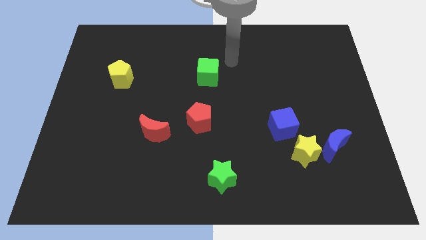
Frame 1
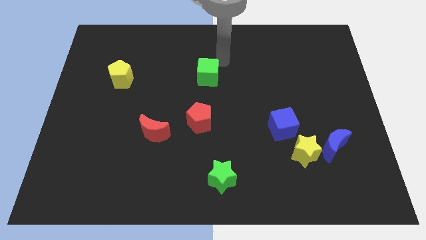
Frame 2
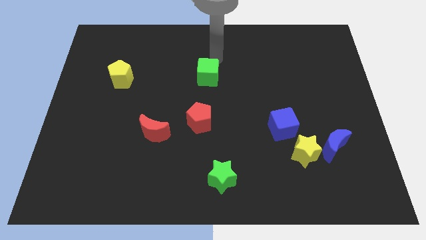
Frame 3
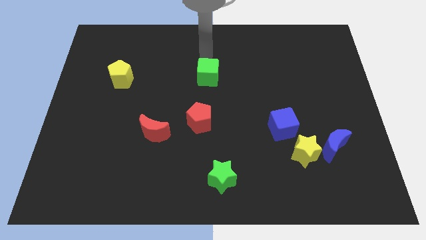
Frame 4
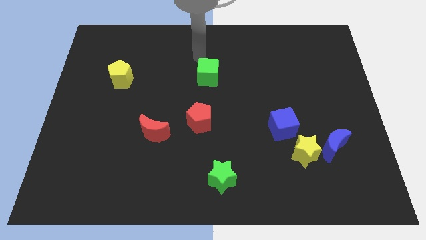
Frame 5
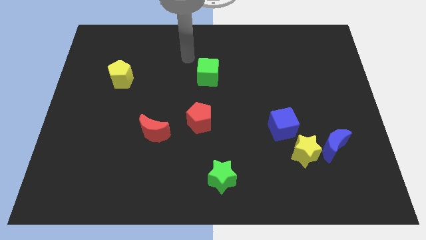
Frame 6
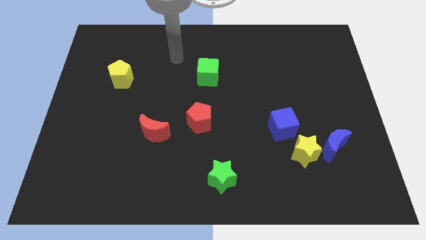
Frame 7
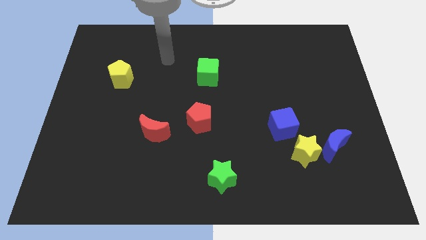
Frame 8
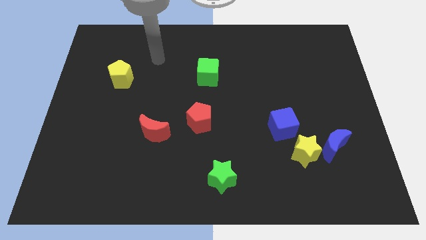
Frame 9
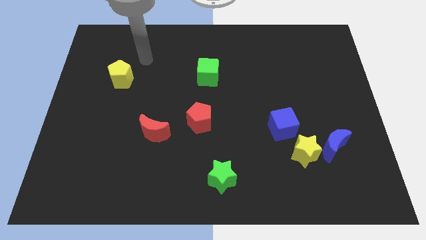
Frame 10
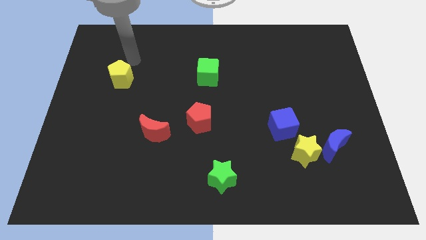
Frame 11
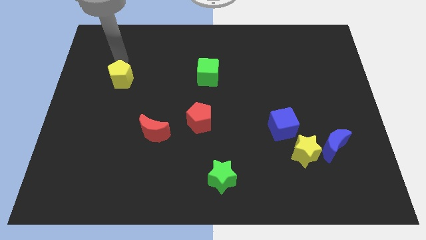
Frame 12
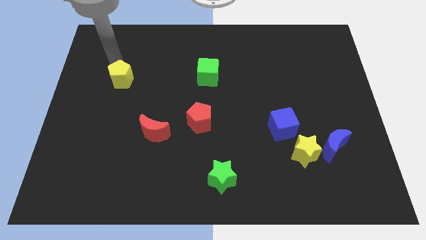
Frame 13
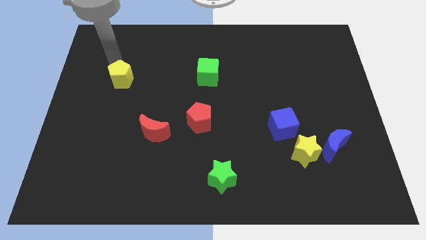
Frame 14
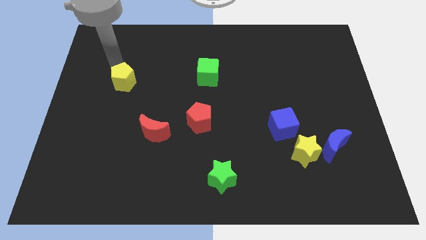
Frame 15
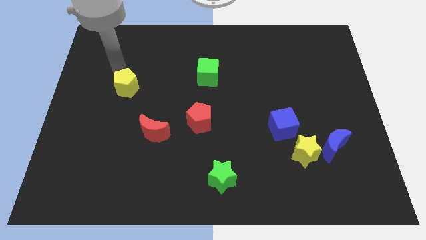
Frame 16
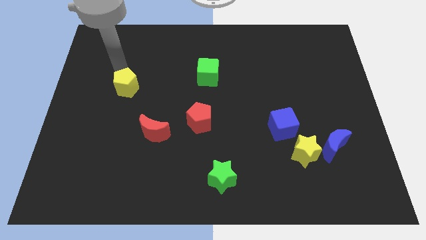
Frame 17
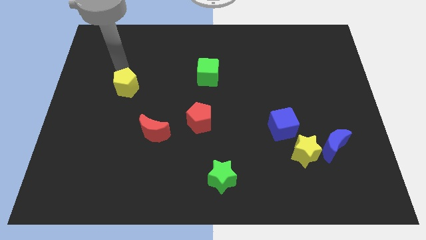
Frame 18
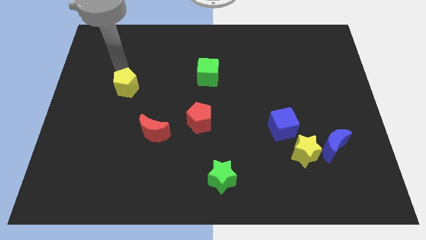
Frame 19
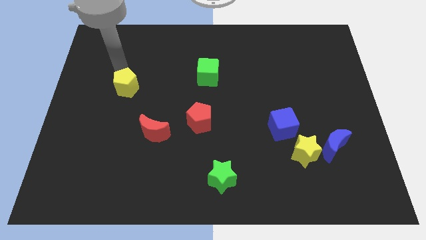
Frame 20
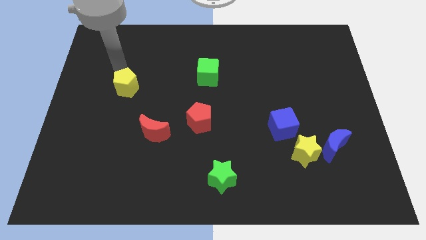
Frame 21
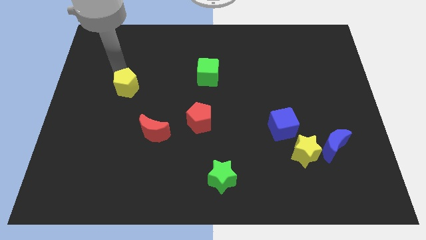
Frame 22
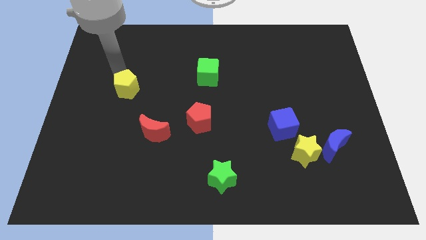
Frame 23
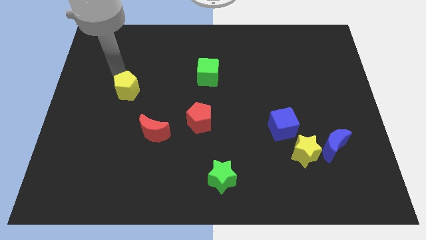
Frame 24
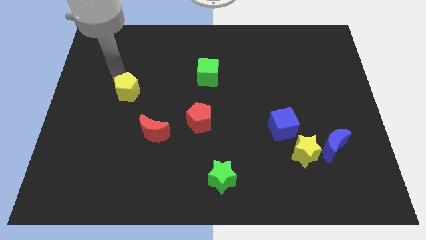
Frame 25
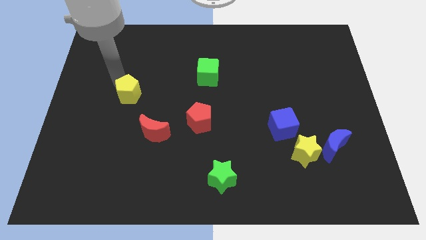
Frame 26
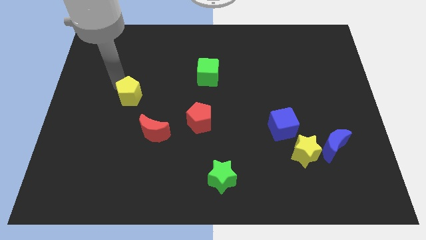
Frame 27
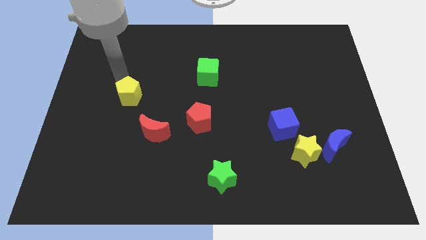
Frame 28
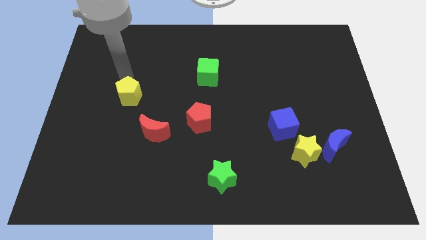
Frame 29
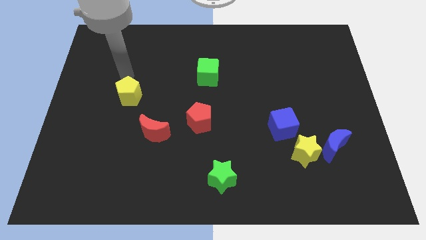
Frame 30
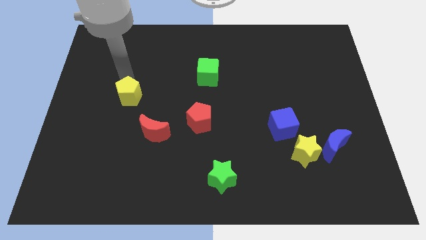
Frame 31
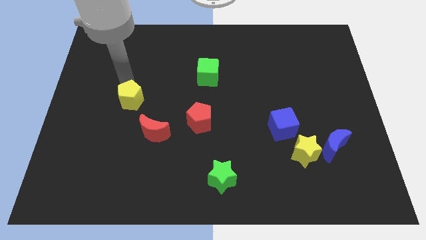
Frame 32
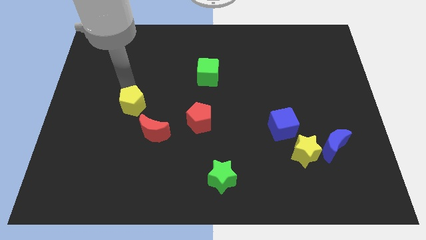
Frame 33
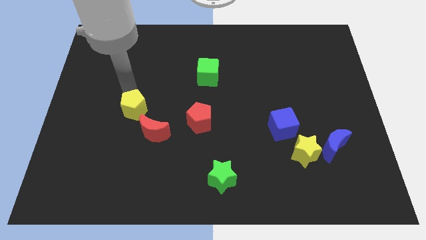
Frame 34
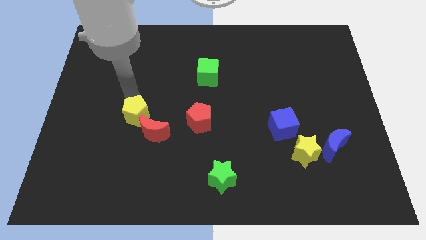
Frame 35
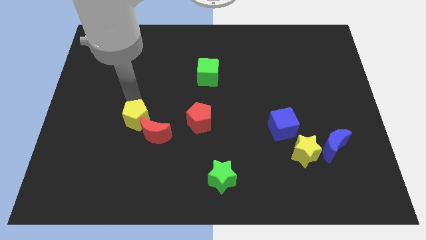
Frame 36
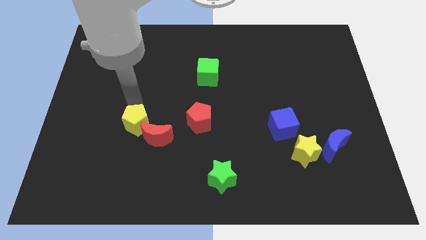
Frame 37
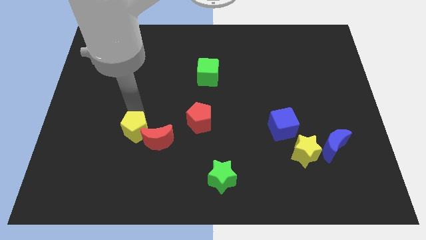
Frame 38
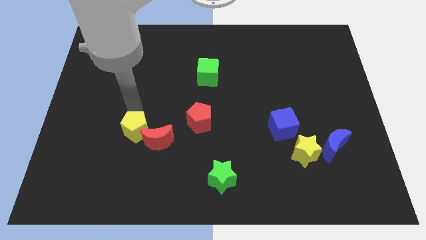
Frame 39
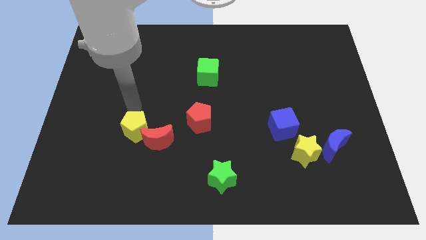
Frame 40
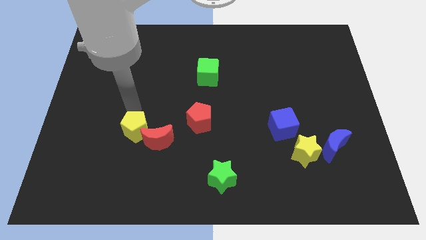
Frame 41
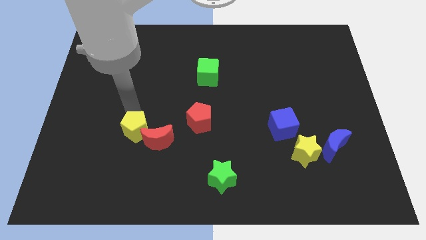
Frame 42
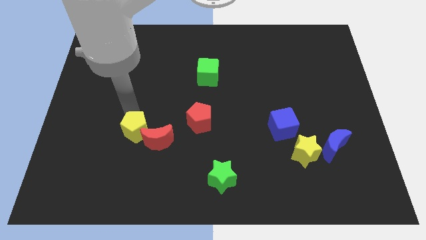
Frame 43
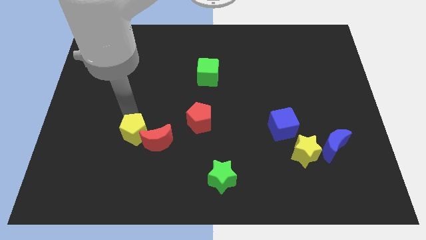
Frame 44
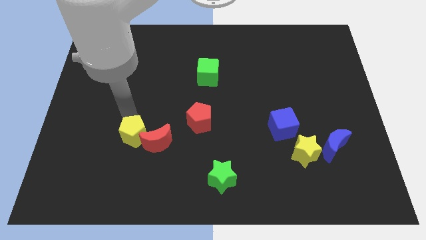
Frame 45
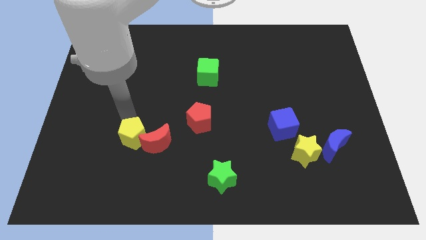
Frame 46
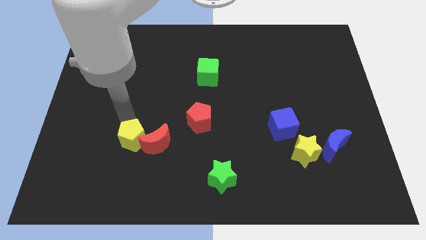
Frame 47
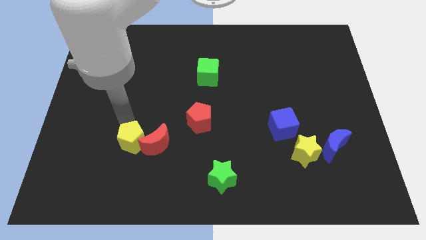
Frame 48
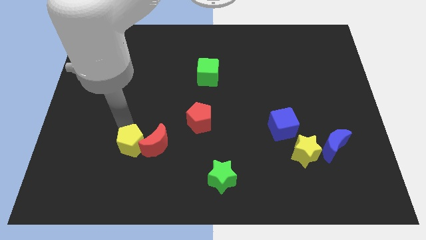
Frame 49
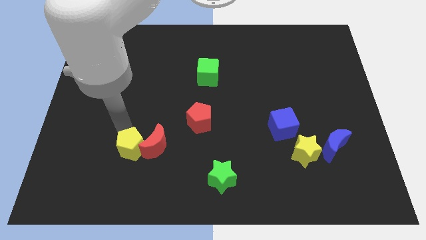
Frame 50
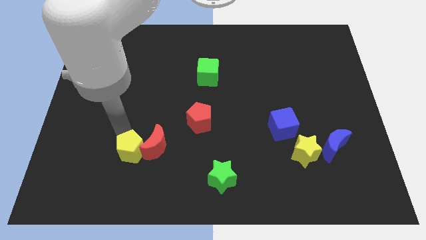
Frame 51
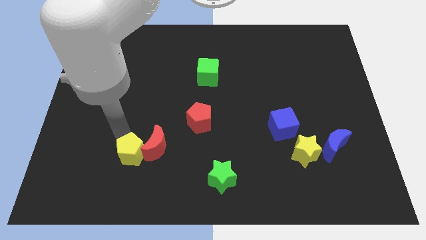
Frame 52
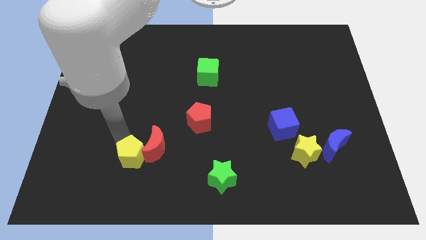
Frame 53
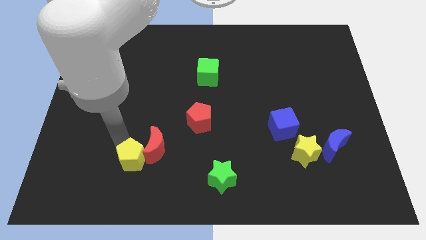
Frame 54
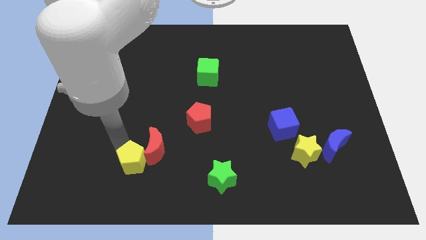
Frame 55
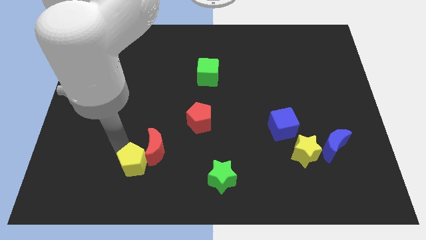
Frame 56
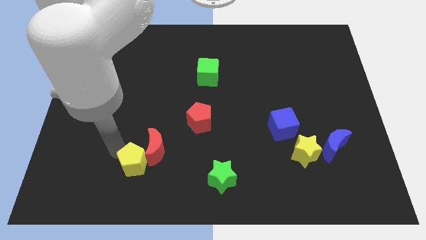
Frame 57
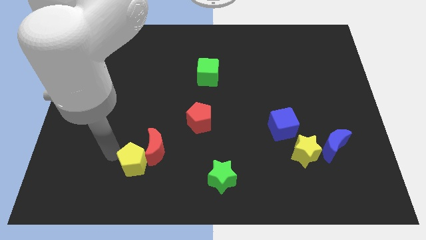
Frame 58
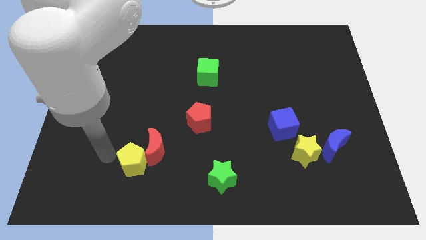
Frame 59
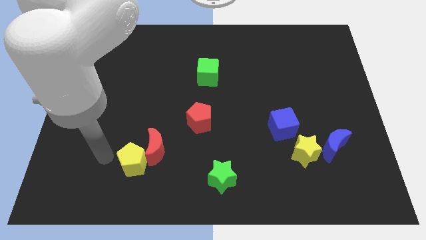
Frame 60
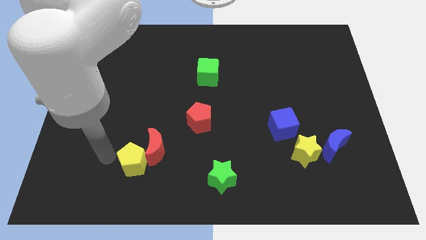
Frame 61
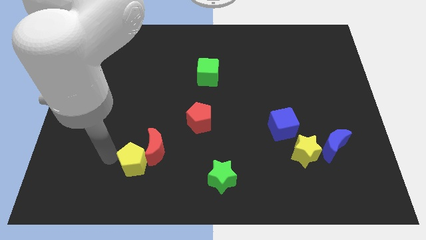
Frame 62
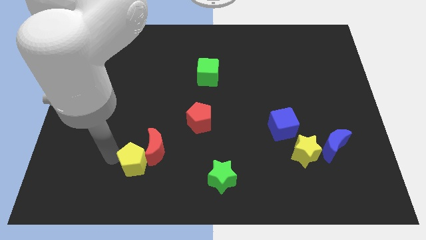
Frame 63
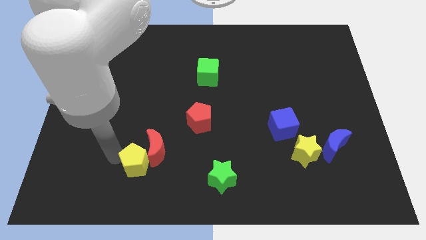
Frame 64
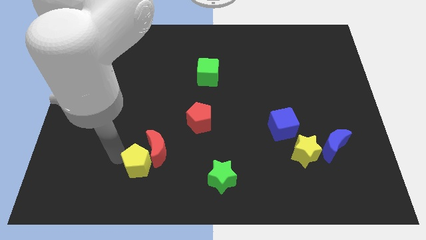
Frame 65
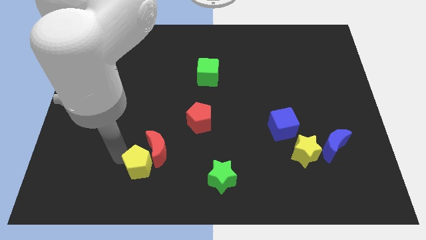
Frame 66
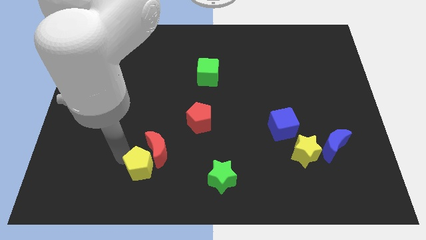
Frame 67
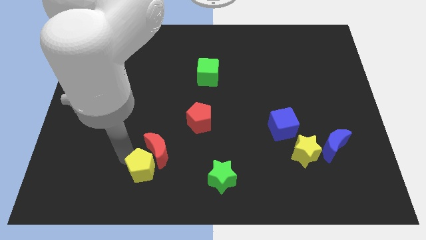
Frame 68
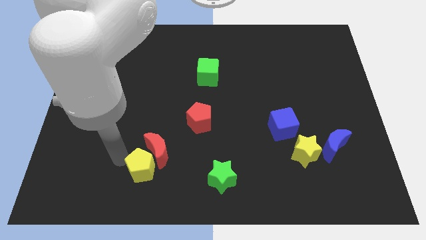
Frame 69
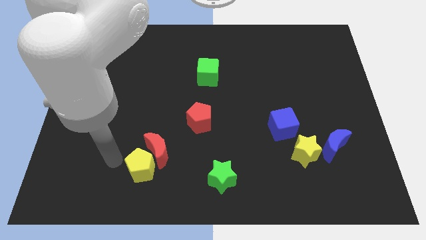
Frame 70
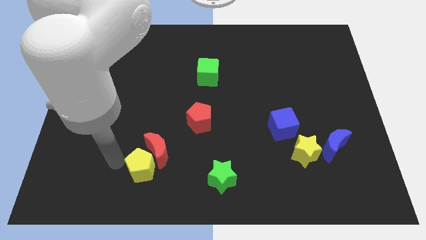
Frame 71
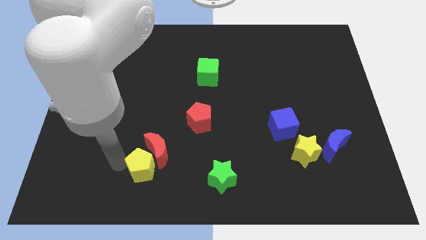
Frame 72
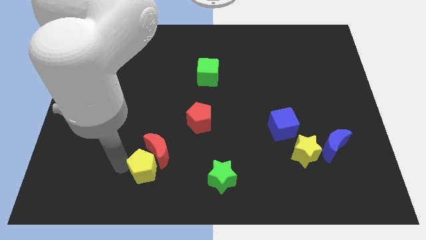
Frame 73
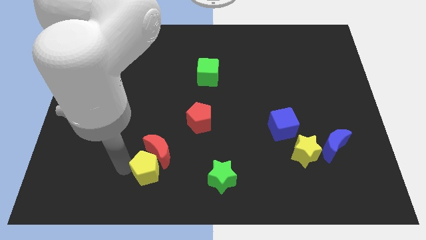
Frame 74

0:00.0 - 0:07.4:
put the yellow pentagon to the left side of the green star

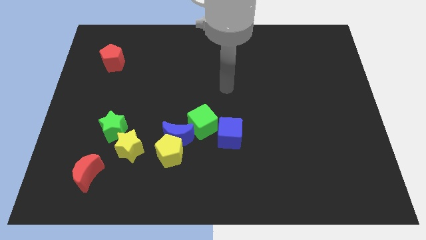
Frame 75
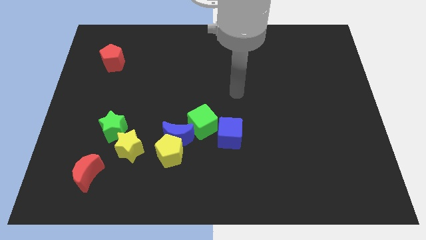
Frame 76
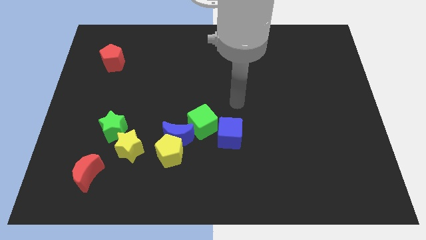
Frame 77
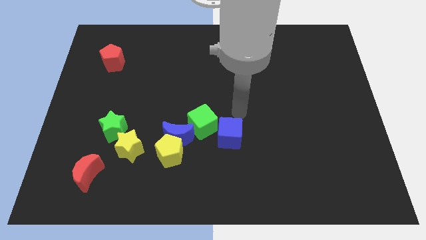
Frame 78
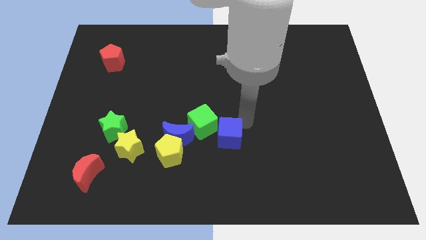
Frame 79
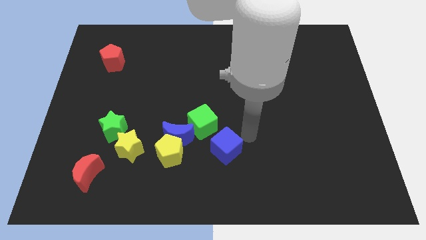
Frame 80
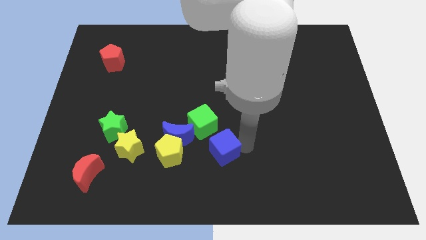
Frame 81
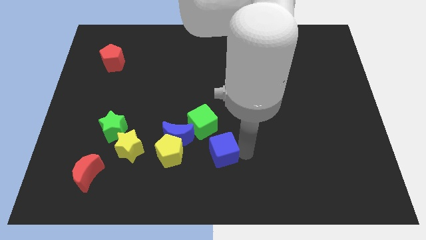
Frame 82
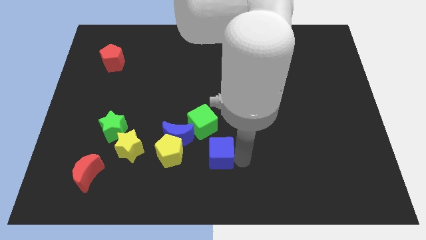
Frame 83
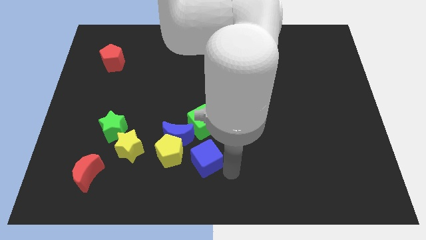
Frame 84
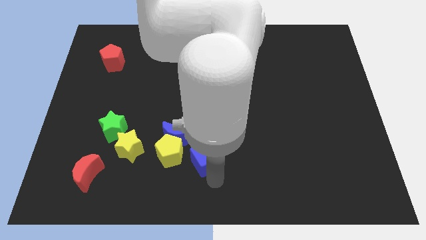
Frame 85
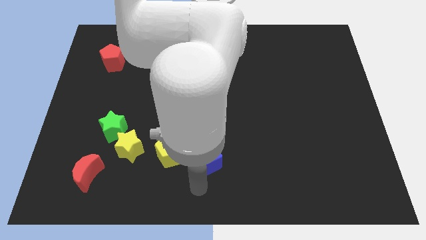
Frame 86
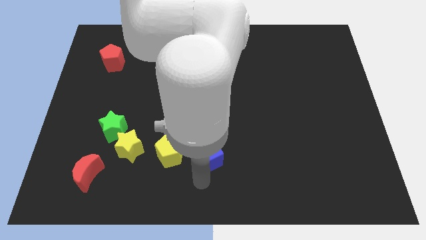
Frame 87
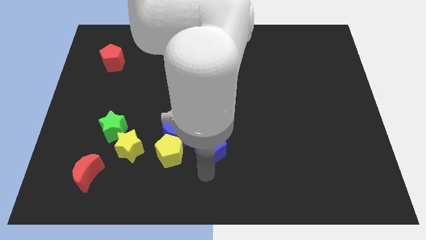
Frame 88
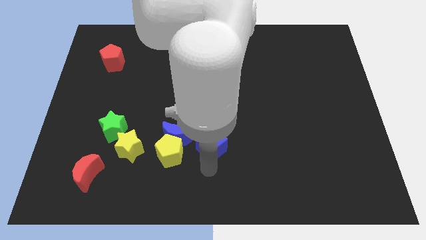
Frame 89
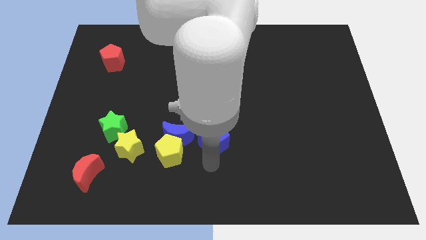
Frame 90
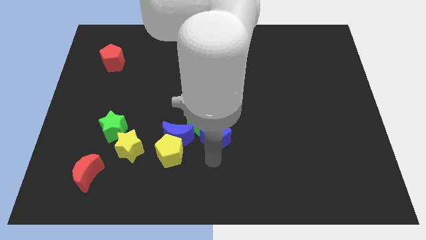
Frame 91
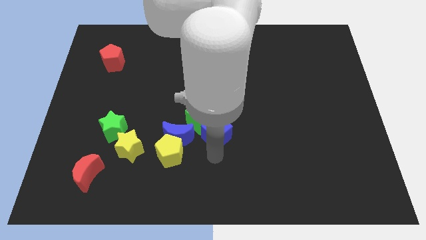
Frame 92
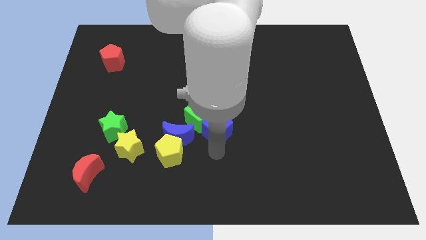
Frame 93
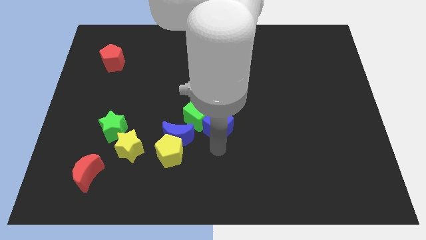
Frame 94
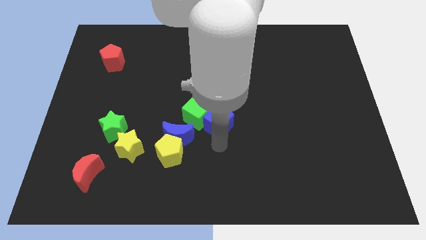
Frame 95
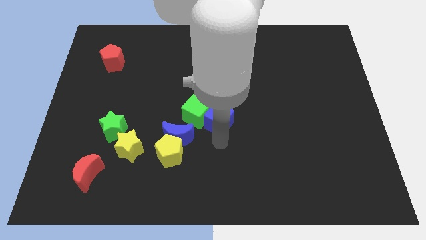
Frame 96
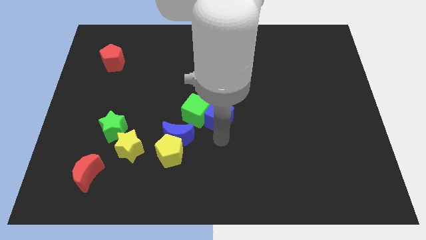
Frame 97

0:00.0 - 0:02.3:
put the blue cube to the top right of the green cube
